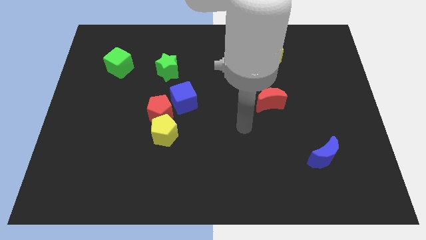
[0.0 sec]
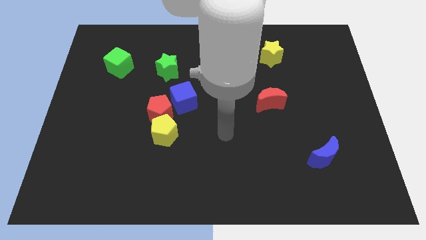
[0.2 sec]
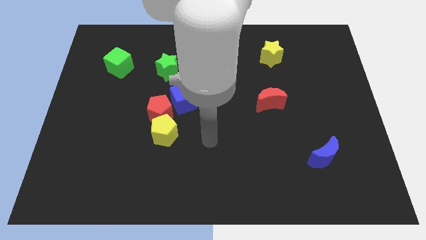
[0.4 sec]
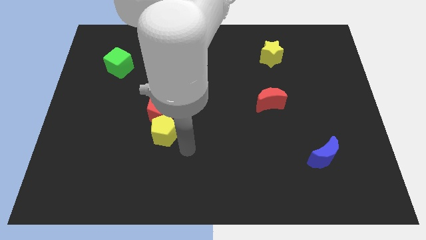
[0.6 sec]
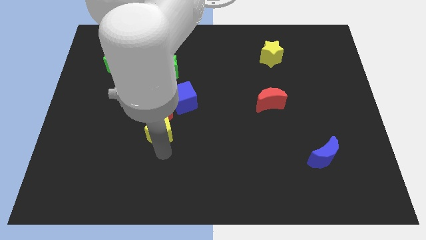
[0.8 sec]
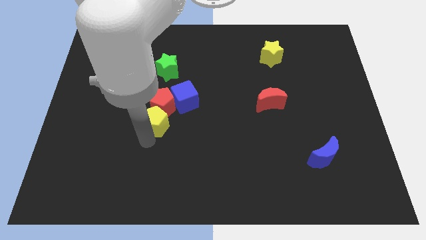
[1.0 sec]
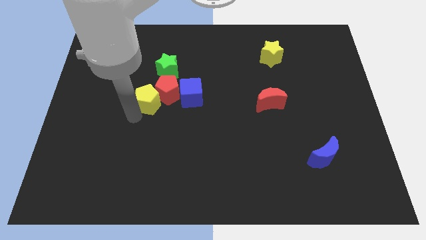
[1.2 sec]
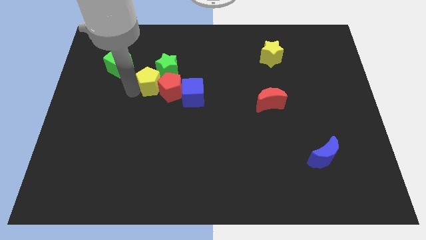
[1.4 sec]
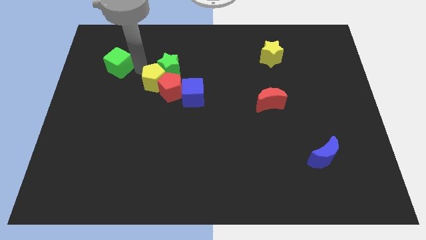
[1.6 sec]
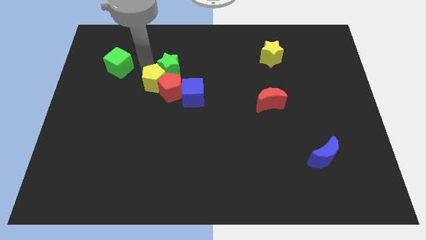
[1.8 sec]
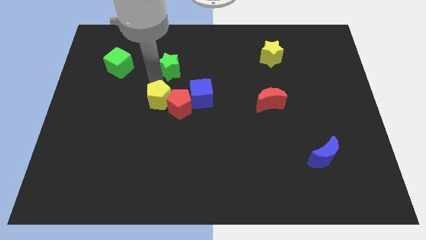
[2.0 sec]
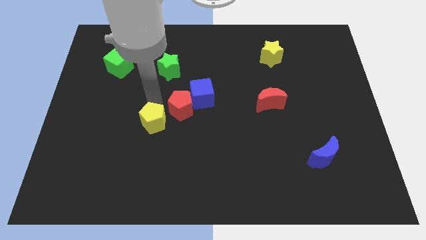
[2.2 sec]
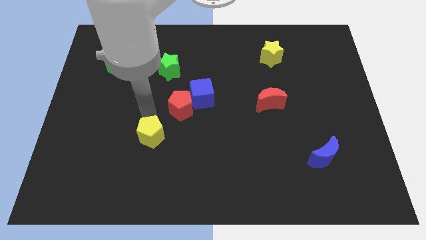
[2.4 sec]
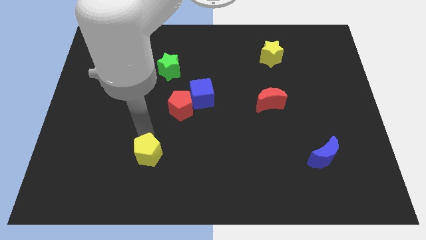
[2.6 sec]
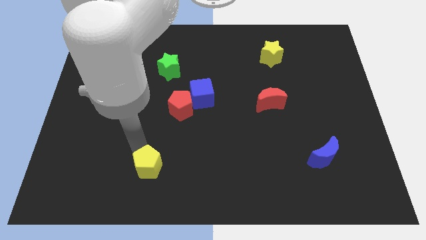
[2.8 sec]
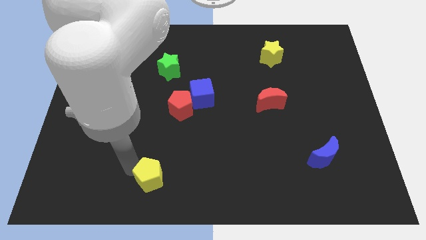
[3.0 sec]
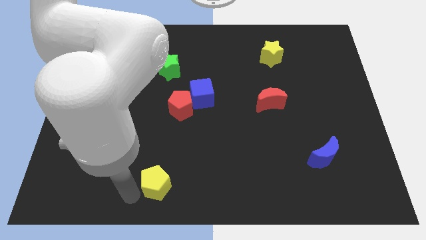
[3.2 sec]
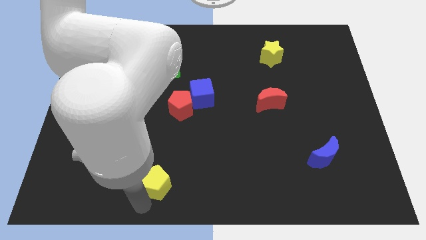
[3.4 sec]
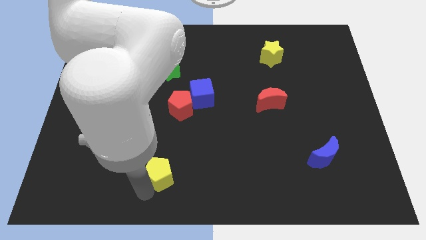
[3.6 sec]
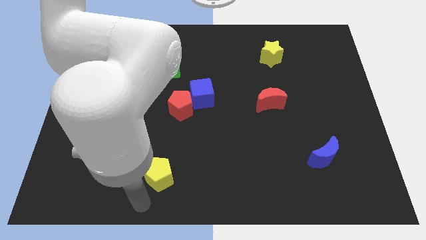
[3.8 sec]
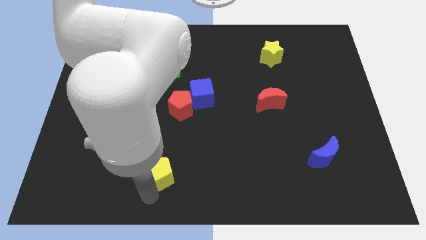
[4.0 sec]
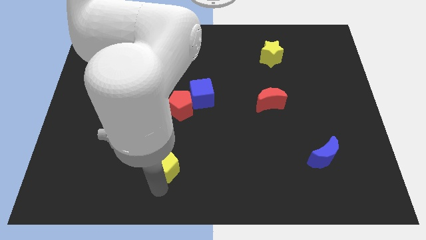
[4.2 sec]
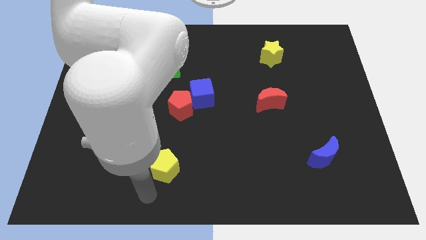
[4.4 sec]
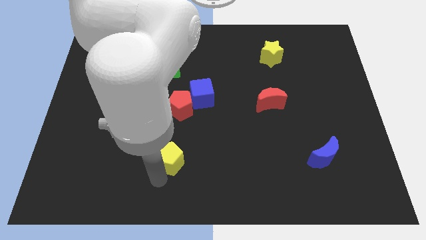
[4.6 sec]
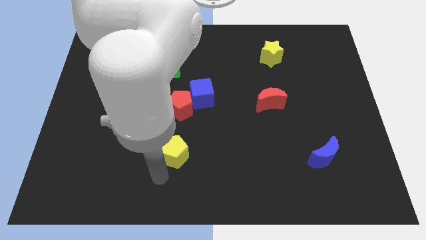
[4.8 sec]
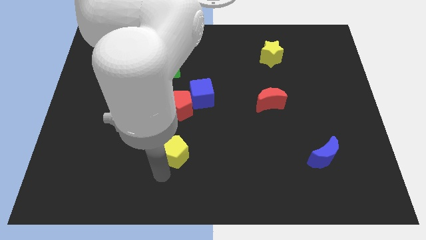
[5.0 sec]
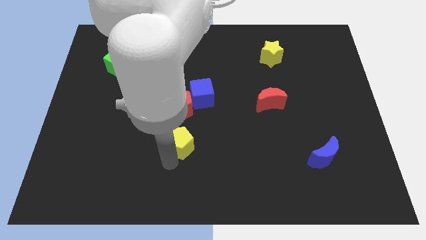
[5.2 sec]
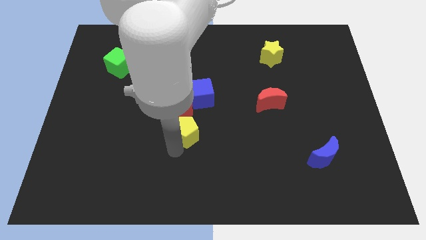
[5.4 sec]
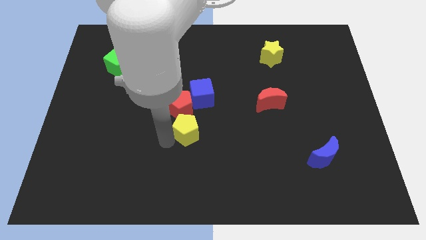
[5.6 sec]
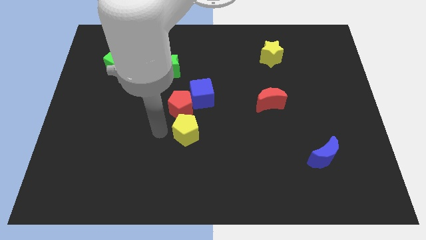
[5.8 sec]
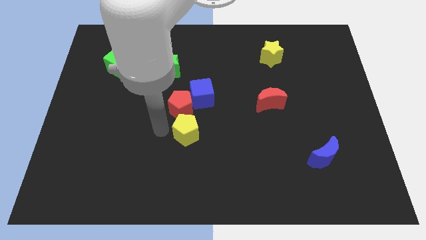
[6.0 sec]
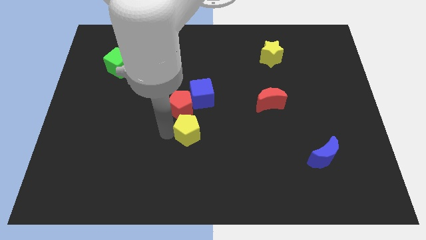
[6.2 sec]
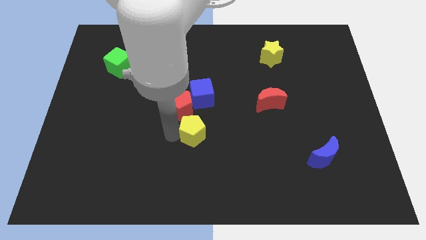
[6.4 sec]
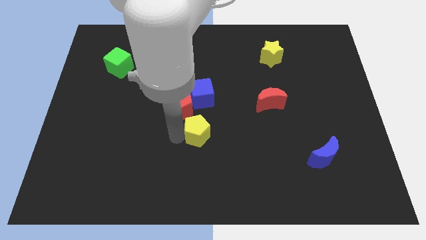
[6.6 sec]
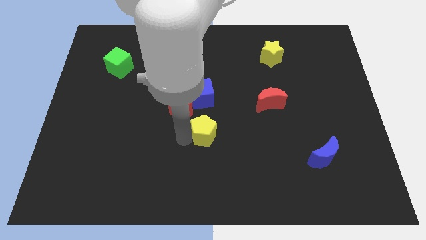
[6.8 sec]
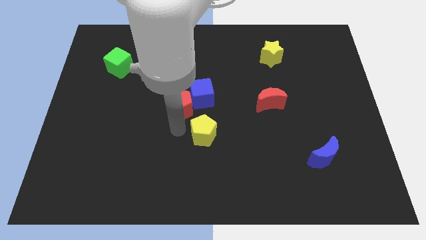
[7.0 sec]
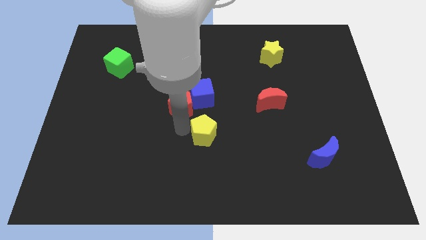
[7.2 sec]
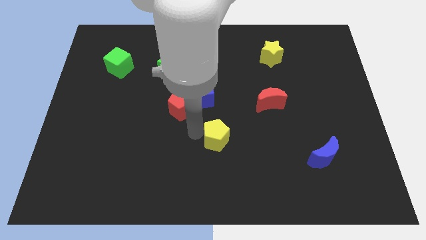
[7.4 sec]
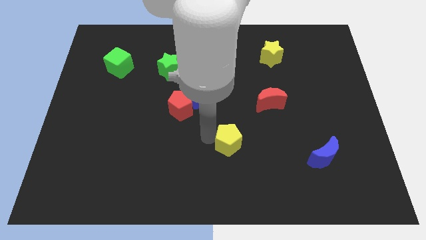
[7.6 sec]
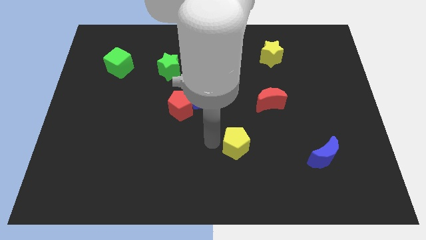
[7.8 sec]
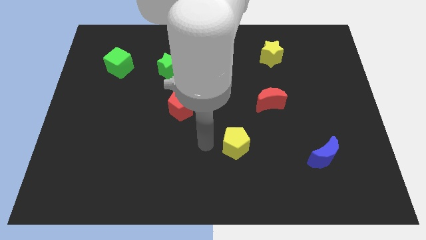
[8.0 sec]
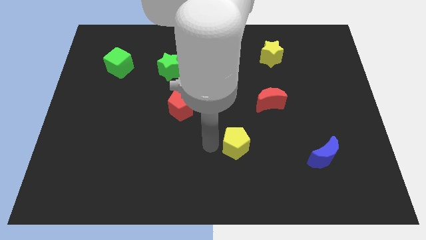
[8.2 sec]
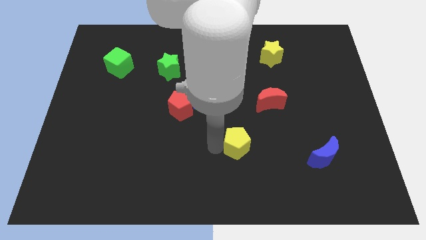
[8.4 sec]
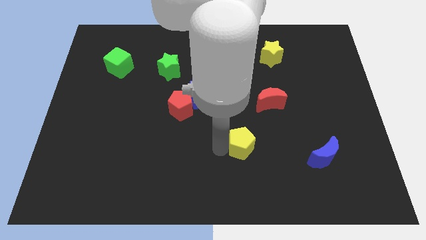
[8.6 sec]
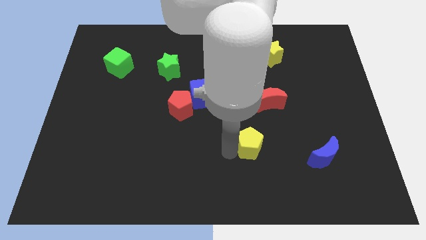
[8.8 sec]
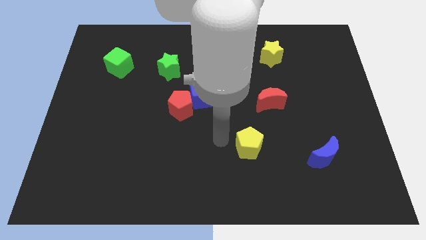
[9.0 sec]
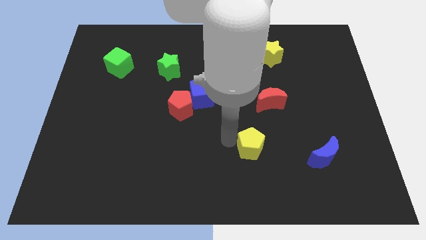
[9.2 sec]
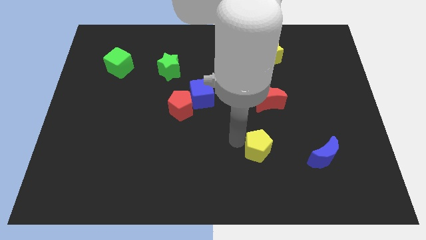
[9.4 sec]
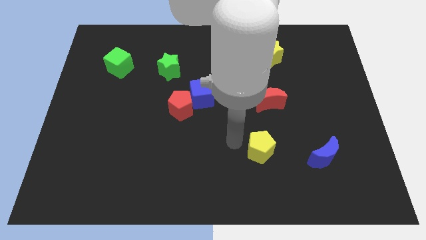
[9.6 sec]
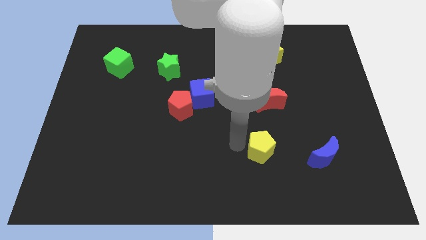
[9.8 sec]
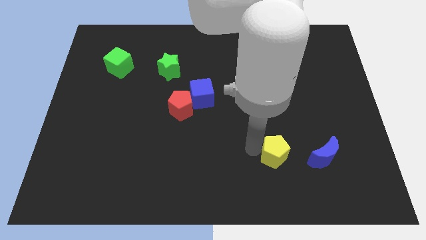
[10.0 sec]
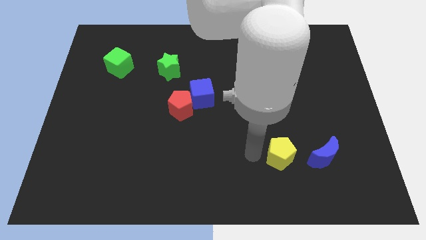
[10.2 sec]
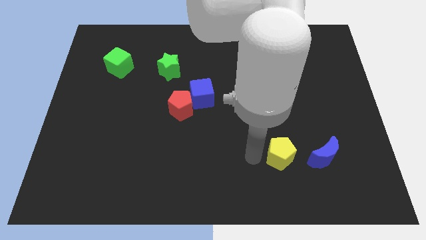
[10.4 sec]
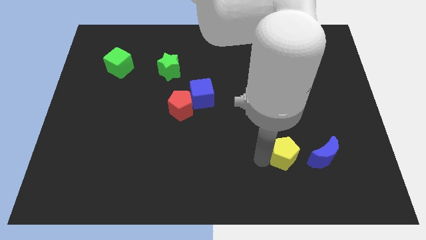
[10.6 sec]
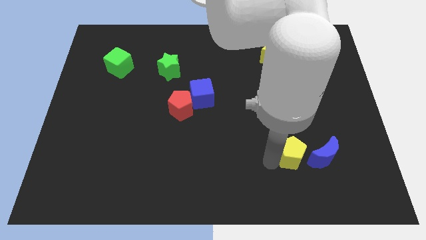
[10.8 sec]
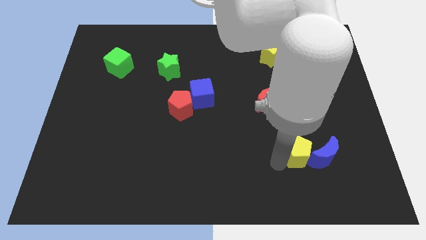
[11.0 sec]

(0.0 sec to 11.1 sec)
put the yellow pentagon next to the blue moon

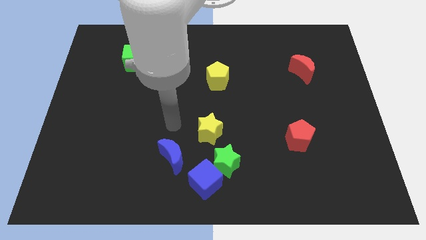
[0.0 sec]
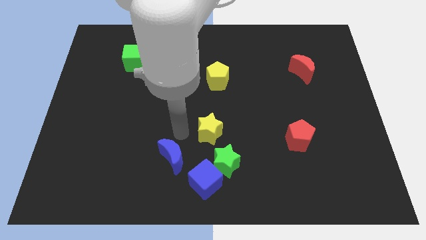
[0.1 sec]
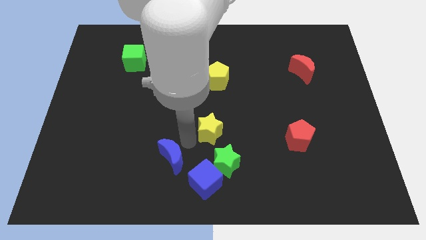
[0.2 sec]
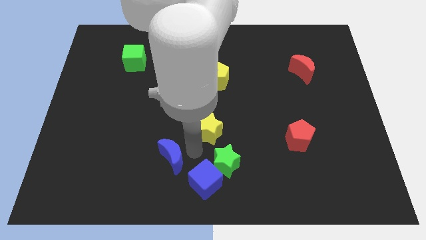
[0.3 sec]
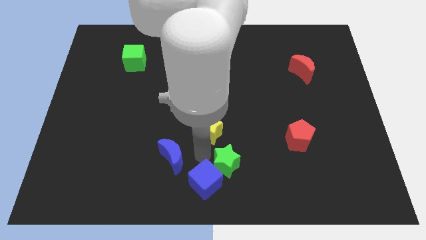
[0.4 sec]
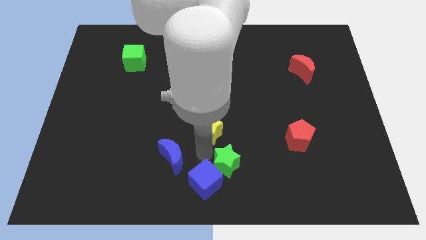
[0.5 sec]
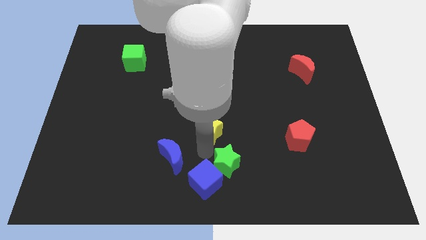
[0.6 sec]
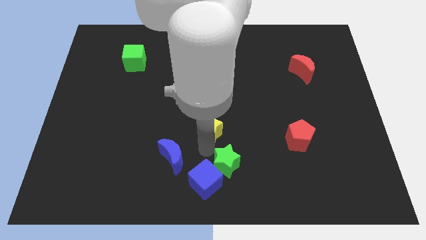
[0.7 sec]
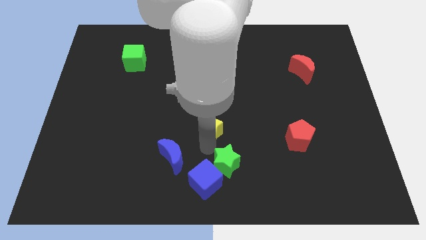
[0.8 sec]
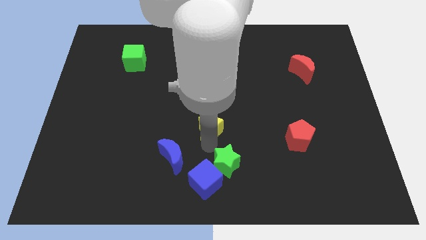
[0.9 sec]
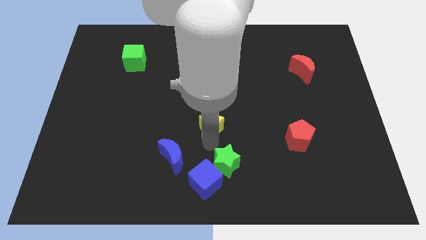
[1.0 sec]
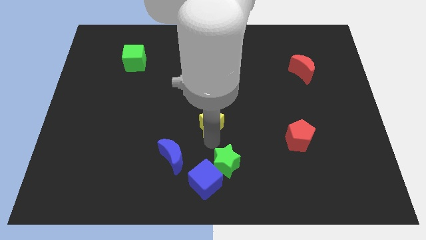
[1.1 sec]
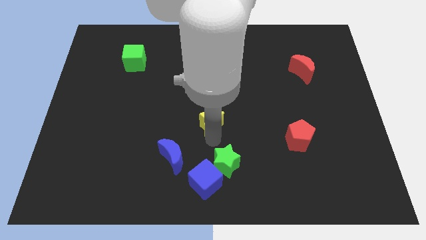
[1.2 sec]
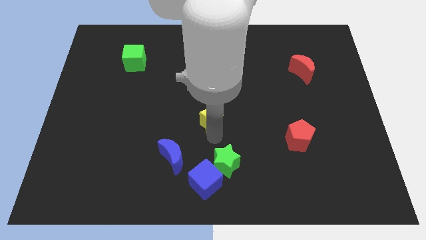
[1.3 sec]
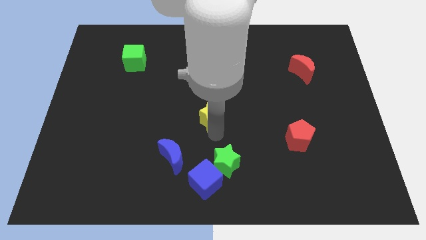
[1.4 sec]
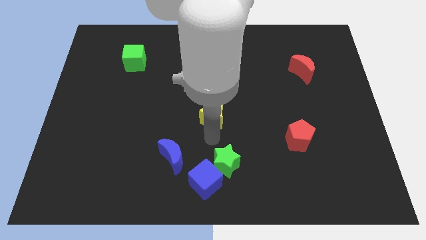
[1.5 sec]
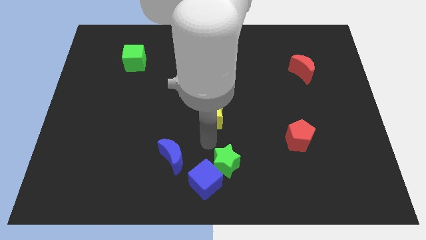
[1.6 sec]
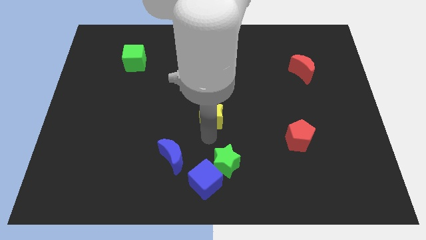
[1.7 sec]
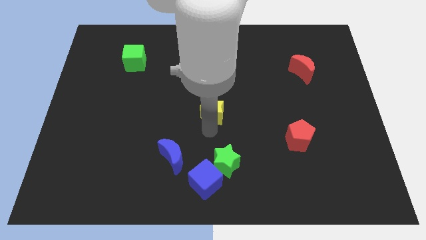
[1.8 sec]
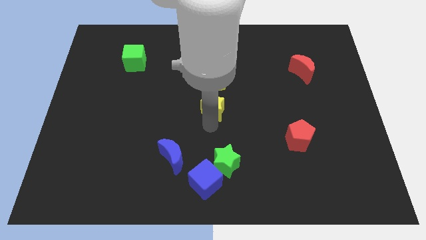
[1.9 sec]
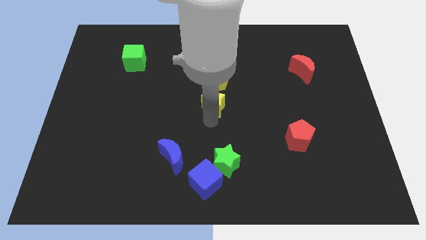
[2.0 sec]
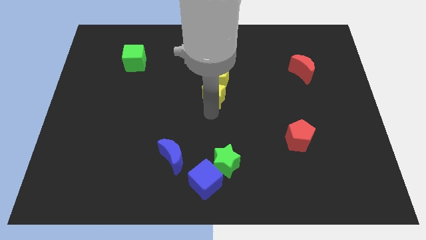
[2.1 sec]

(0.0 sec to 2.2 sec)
push the yellow star close to the yellow pentagon
